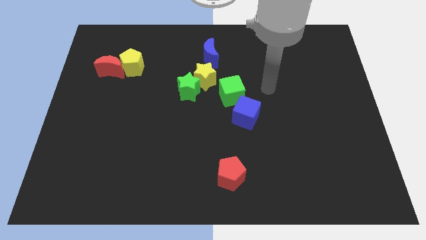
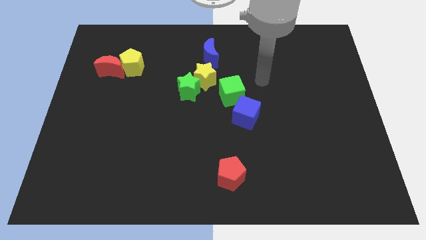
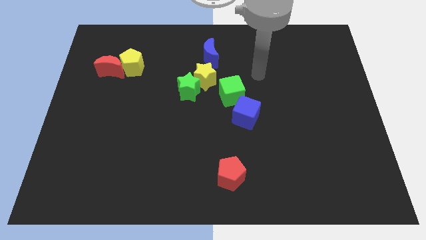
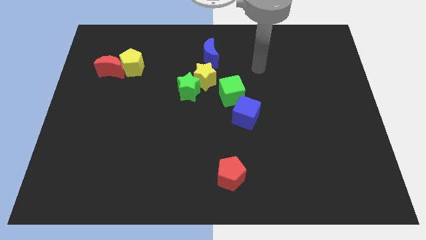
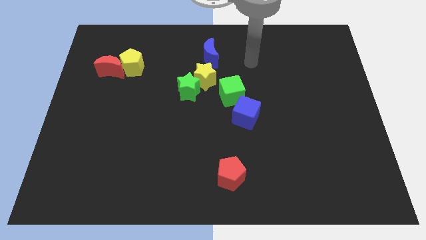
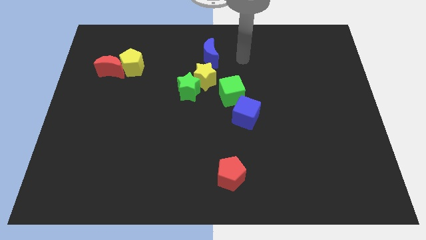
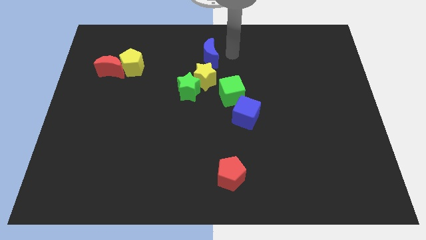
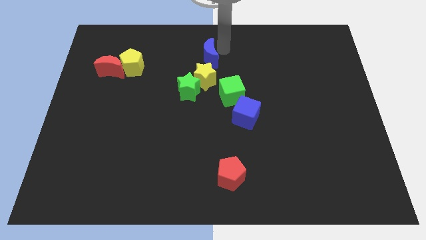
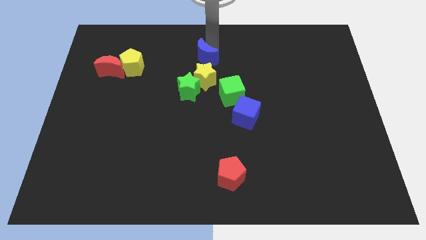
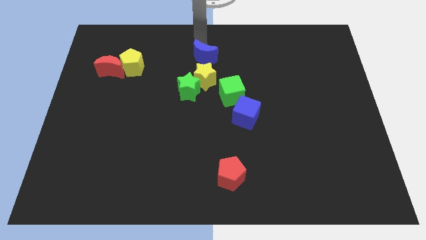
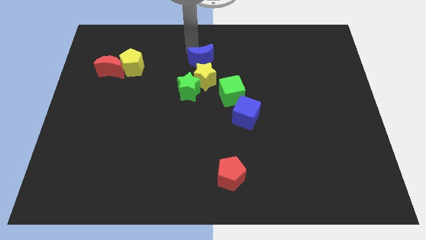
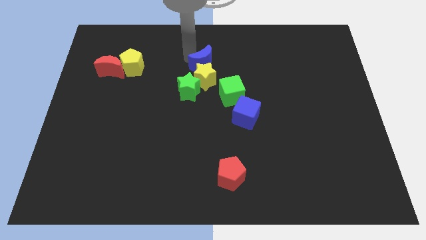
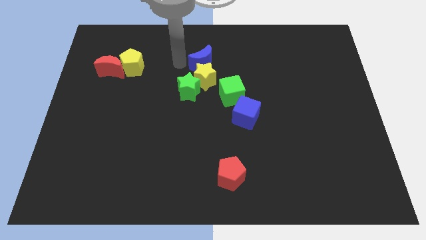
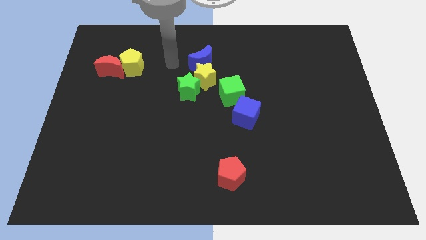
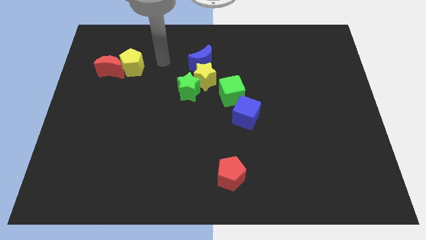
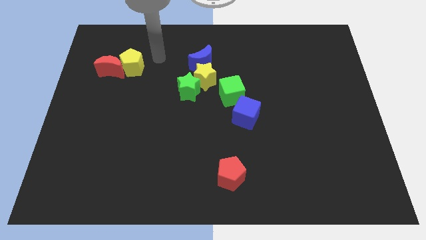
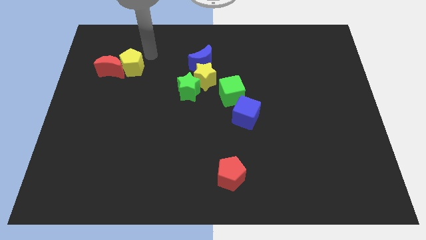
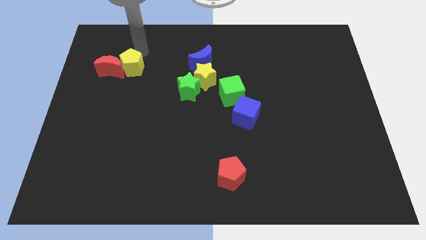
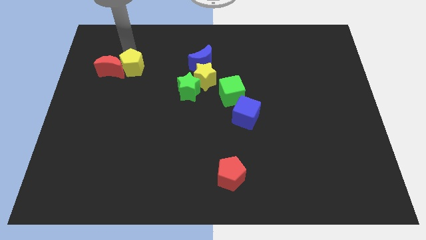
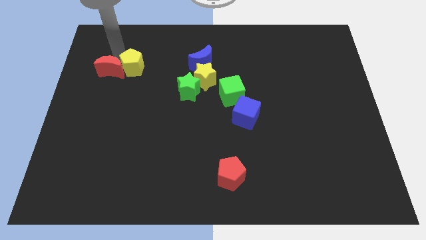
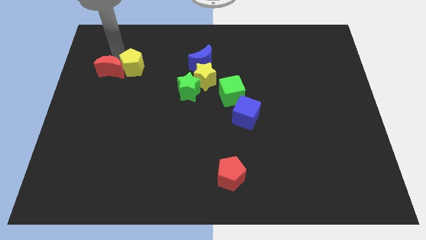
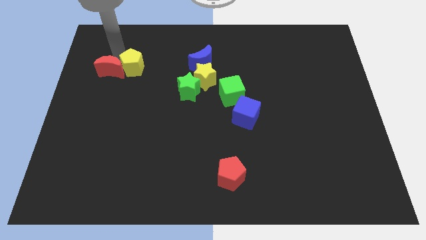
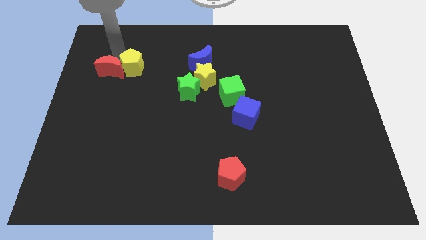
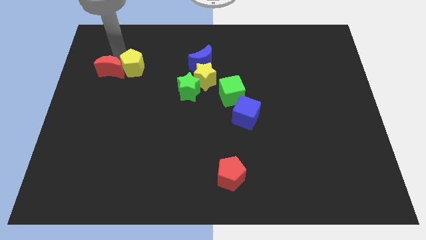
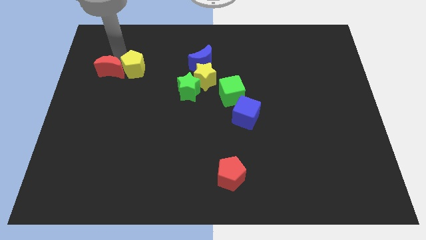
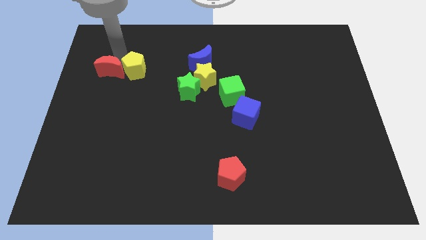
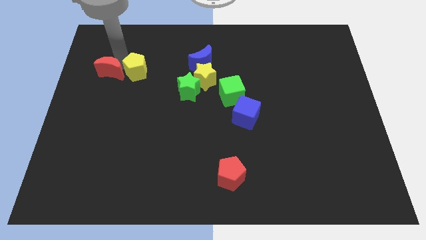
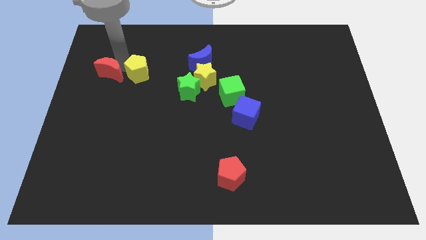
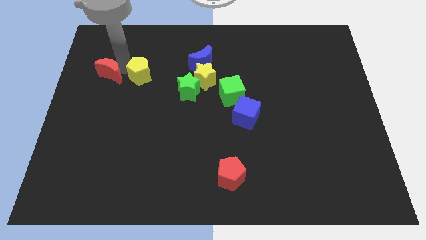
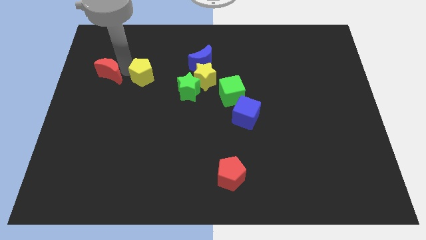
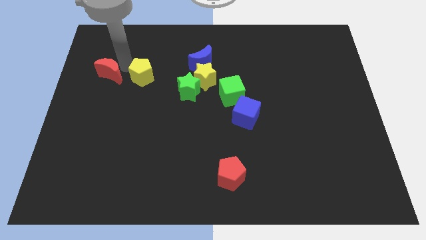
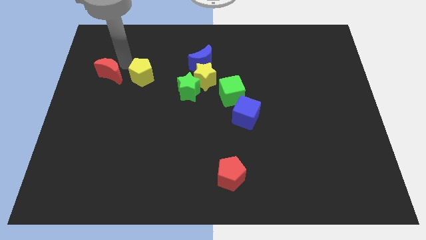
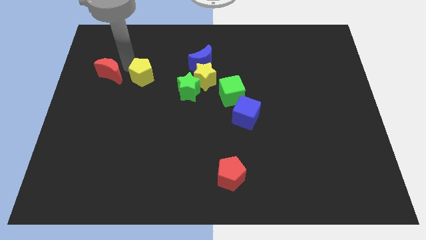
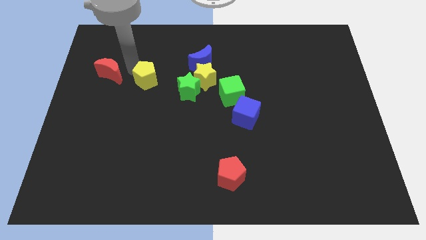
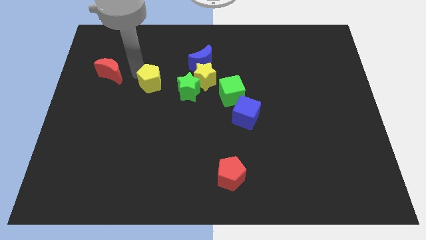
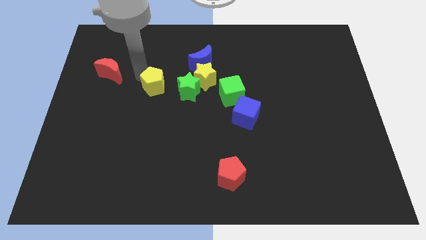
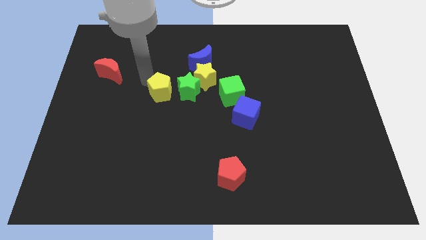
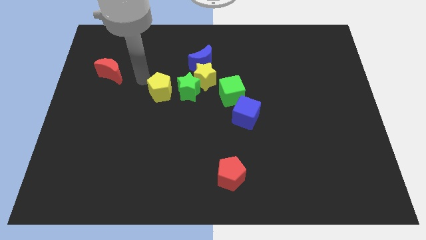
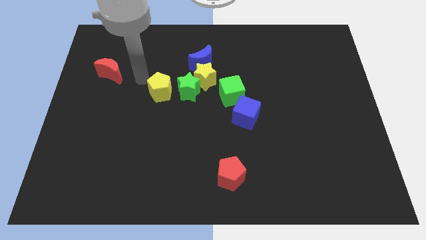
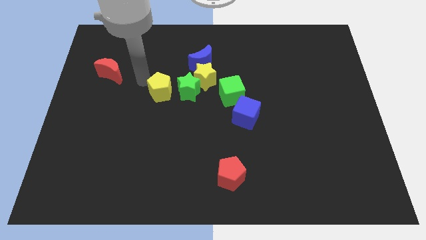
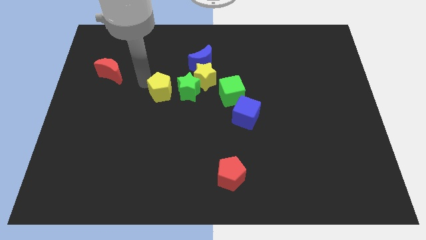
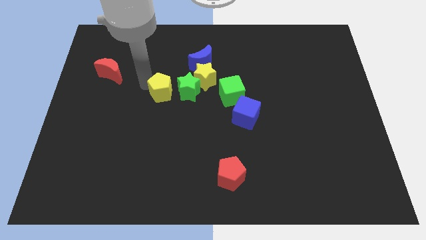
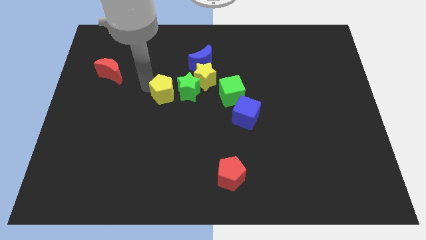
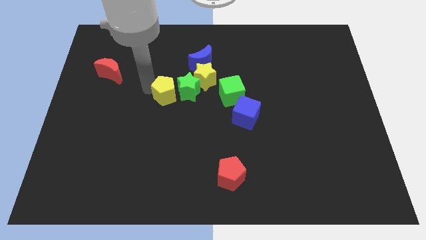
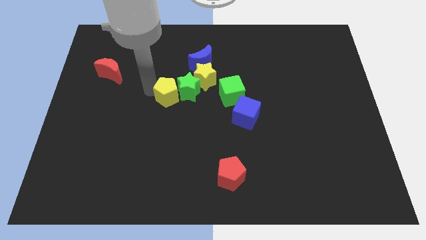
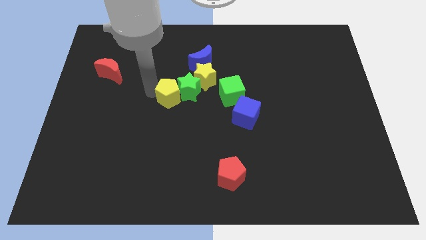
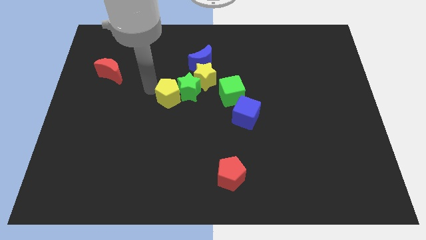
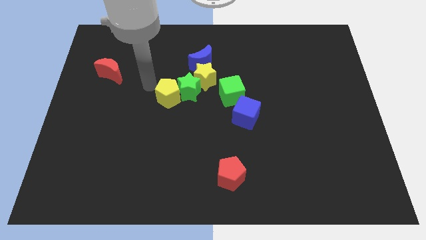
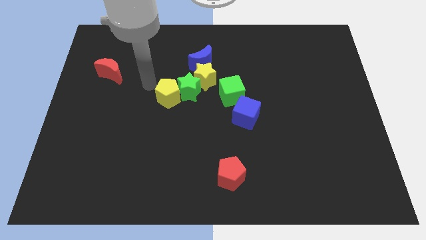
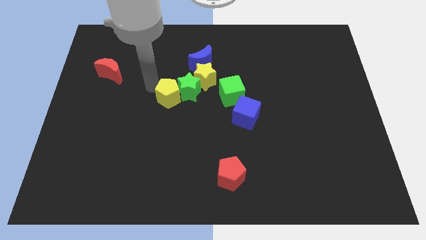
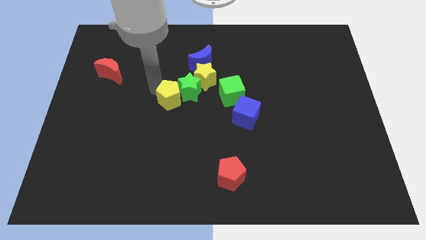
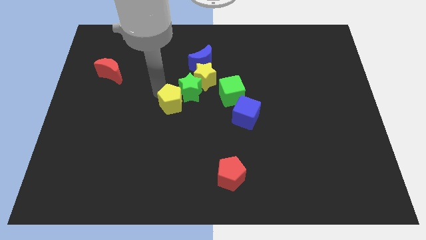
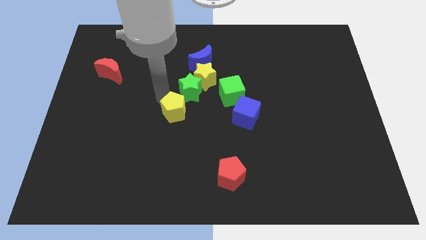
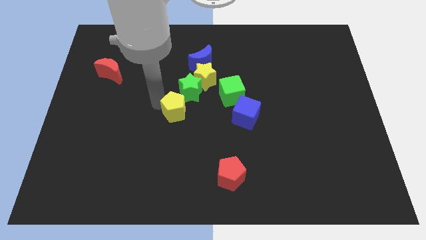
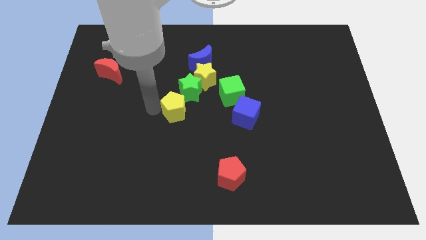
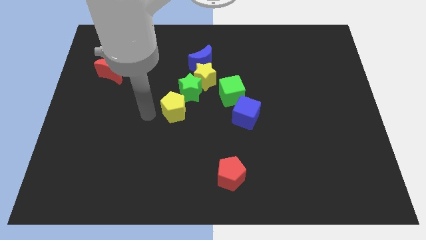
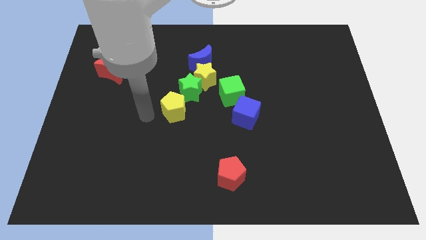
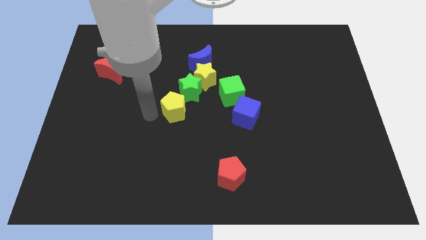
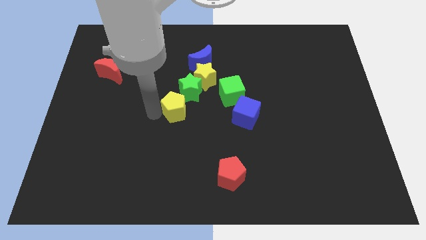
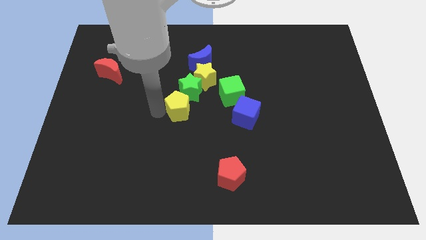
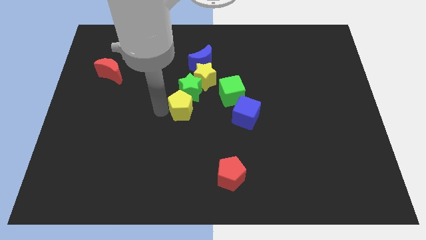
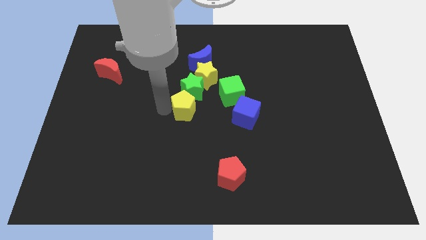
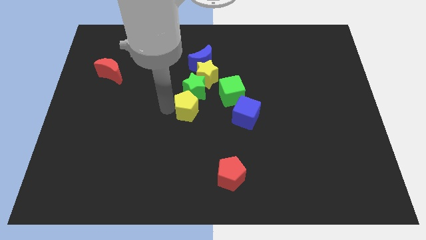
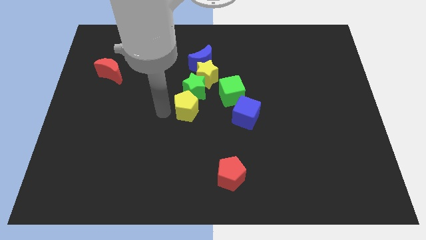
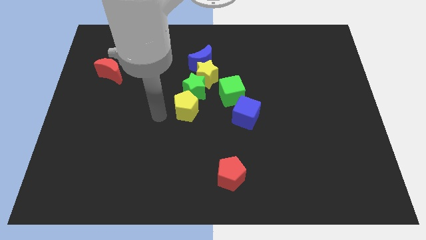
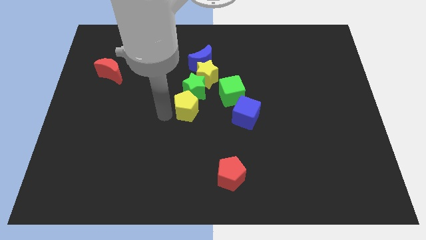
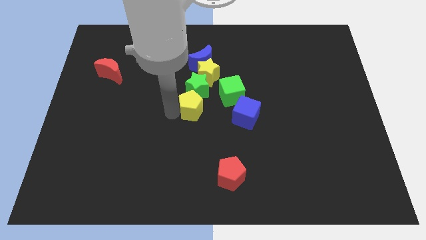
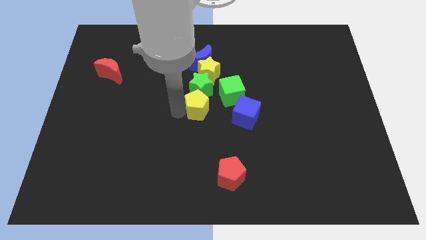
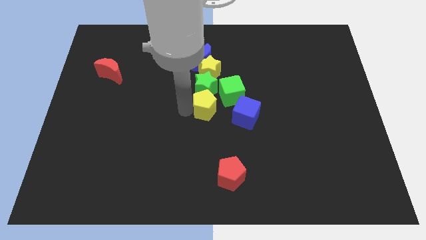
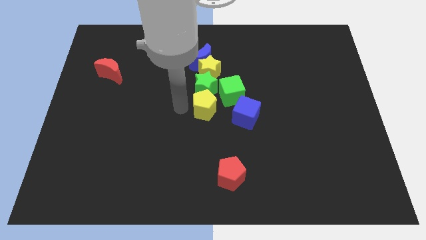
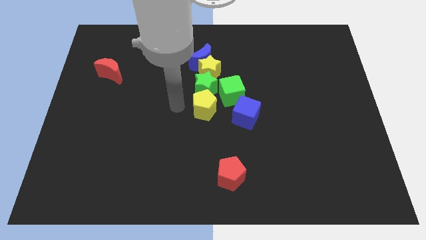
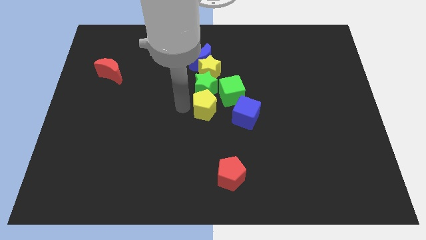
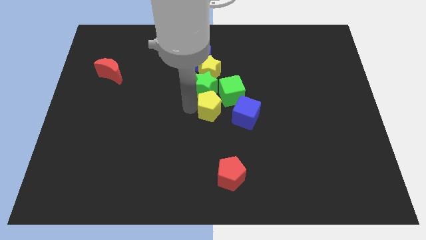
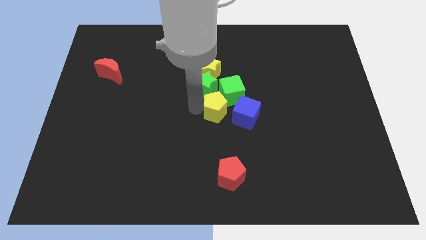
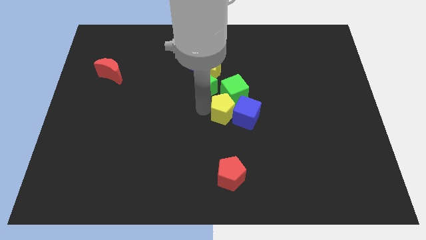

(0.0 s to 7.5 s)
push the yellow pentagon towards the blue cube

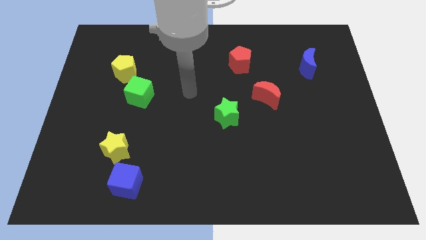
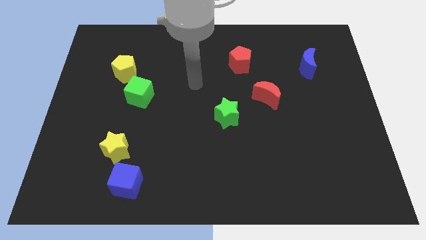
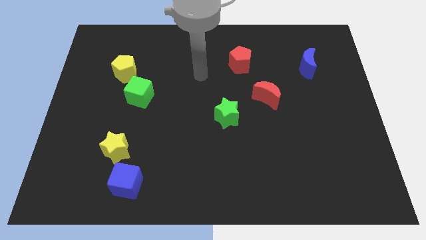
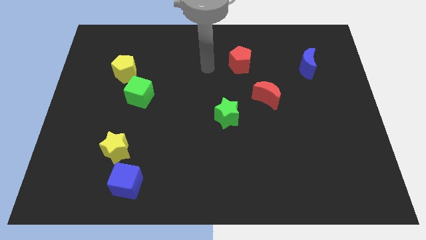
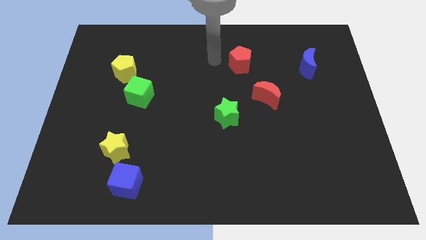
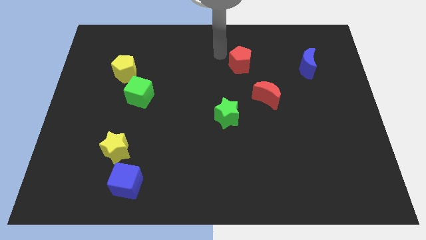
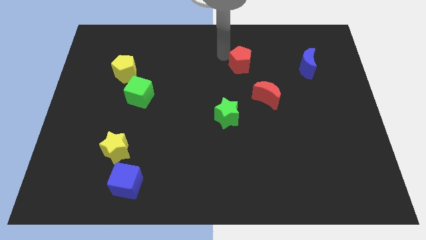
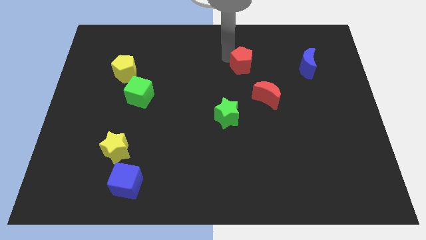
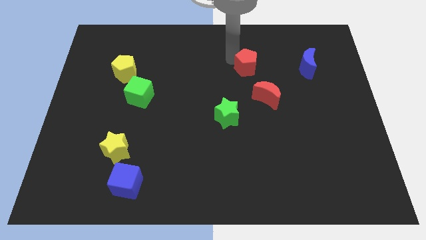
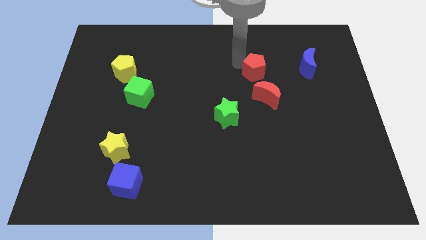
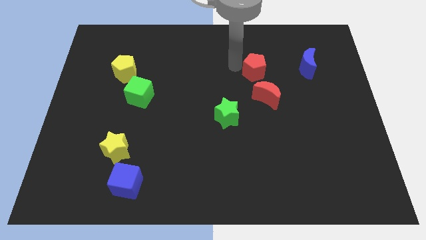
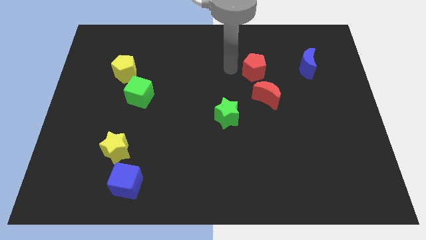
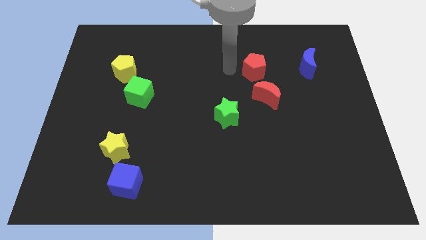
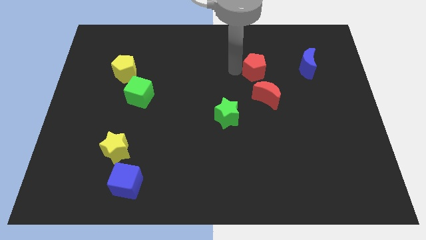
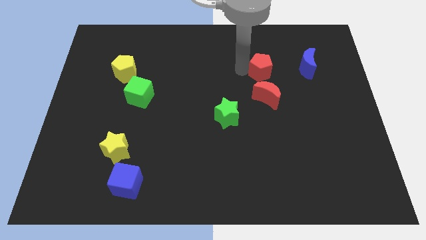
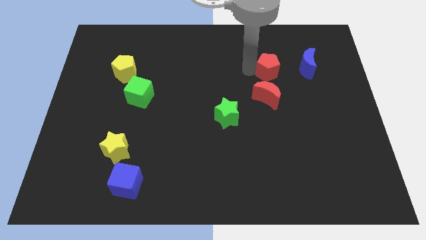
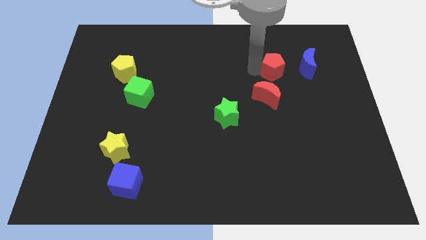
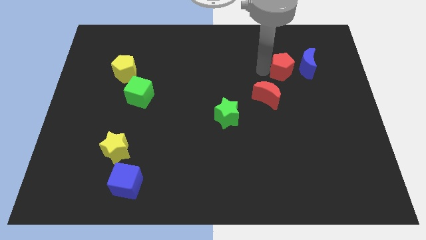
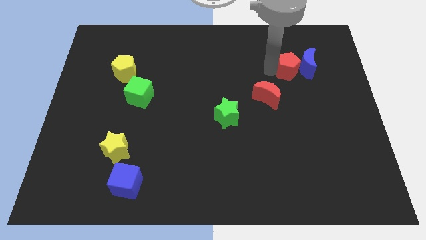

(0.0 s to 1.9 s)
slide the red pentagon to the blue moon
